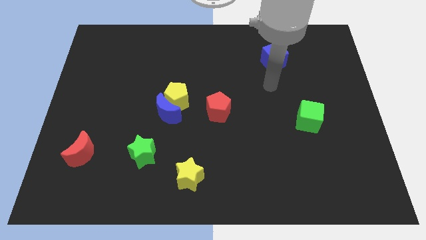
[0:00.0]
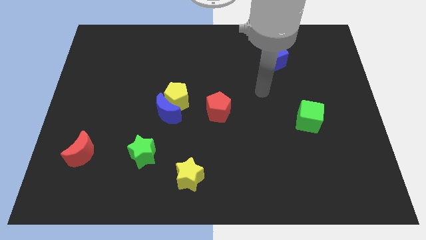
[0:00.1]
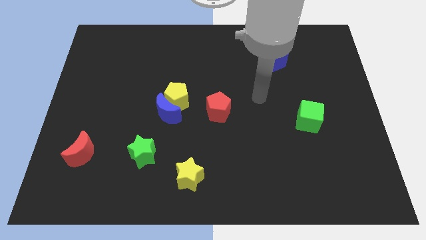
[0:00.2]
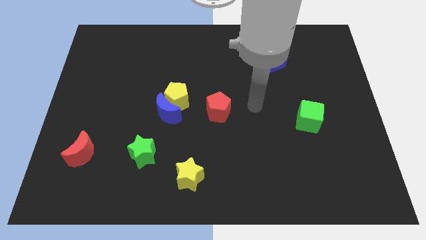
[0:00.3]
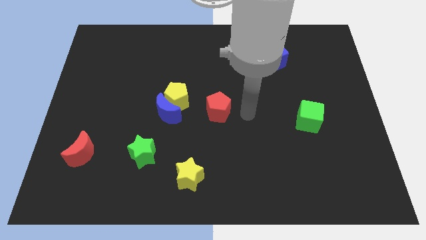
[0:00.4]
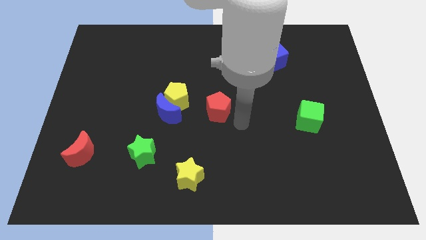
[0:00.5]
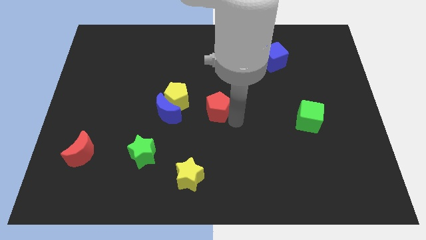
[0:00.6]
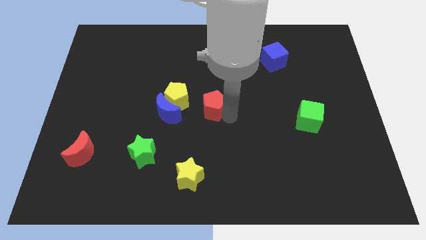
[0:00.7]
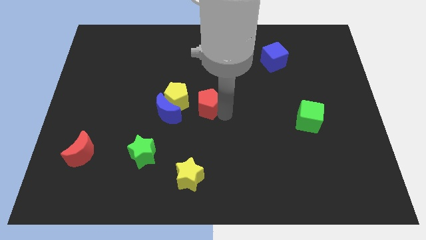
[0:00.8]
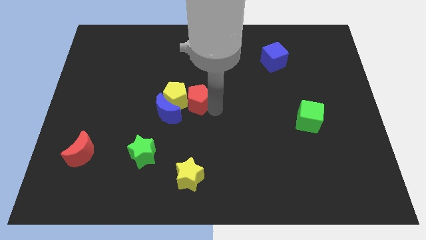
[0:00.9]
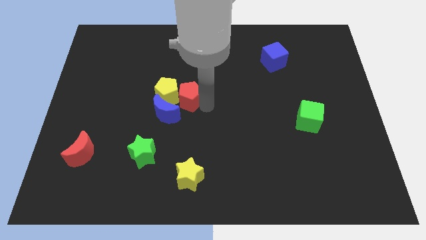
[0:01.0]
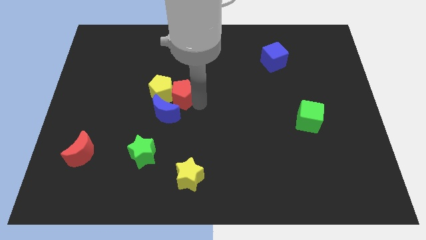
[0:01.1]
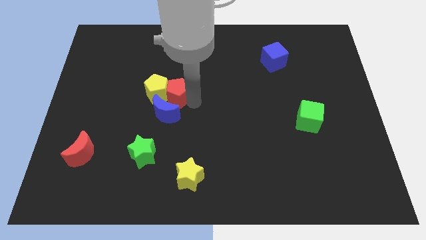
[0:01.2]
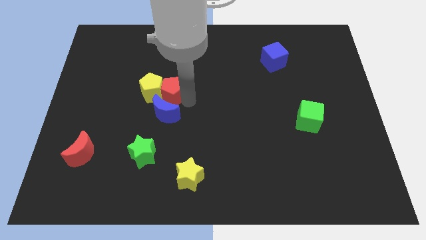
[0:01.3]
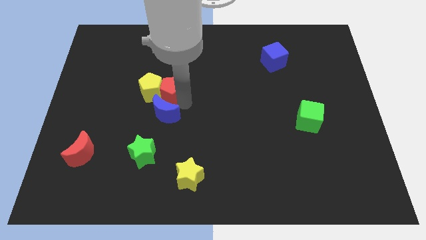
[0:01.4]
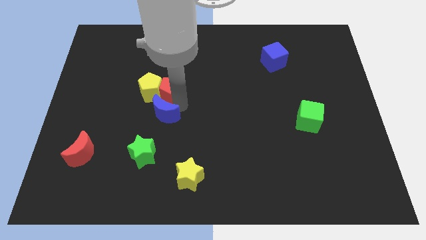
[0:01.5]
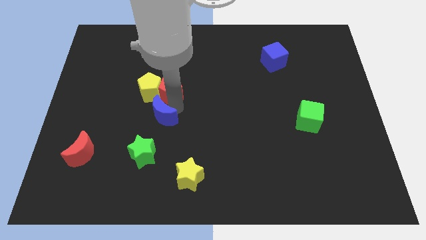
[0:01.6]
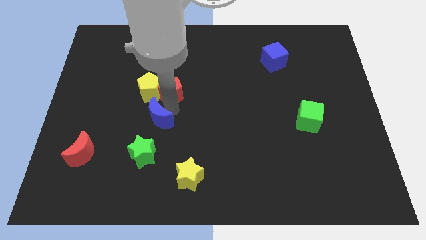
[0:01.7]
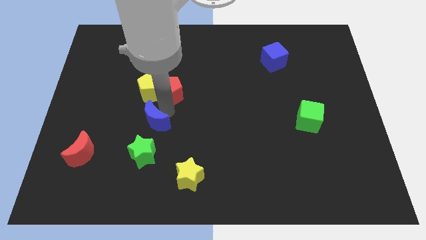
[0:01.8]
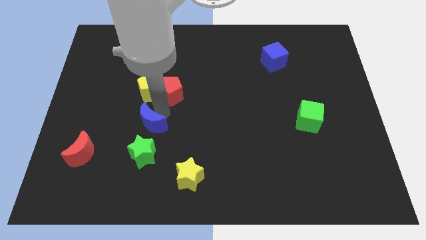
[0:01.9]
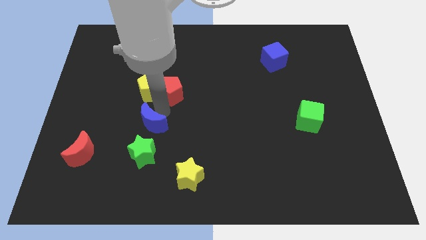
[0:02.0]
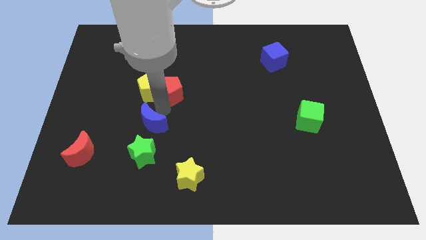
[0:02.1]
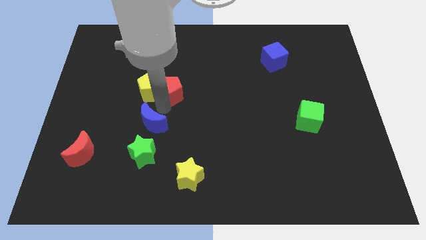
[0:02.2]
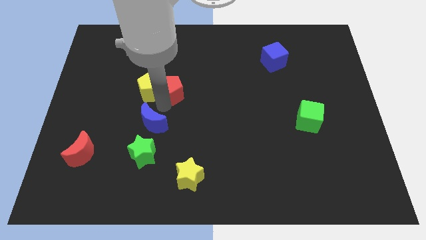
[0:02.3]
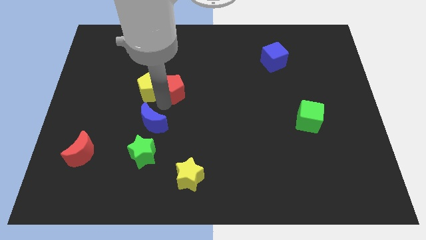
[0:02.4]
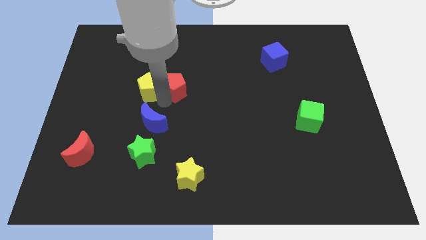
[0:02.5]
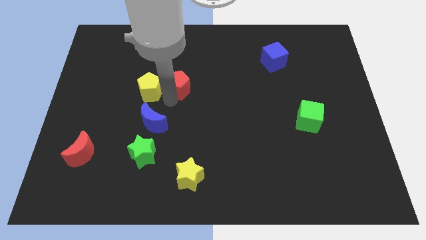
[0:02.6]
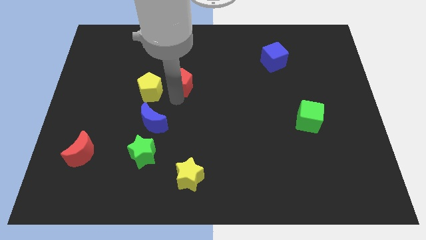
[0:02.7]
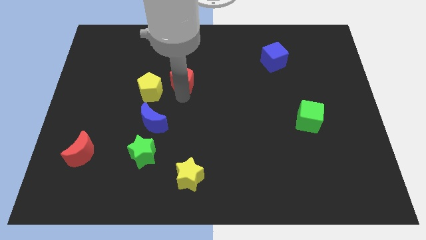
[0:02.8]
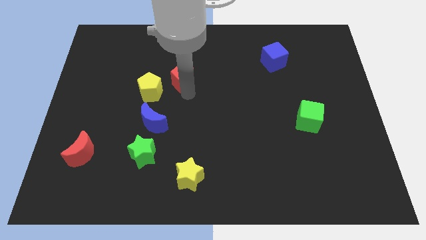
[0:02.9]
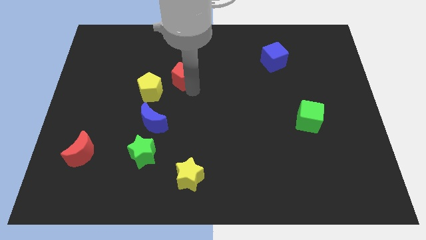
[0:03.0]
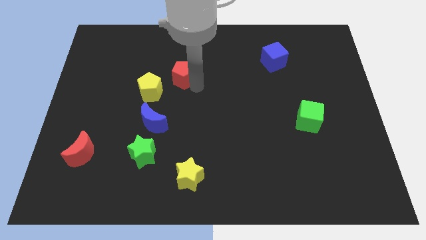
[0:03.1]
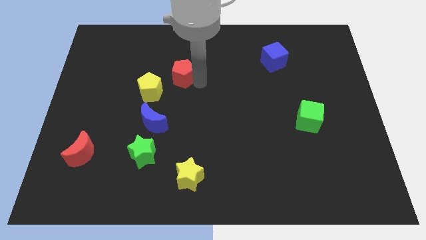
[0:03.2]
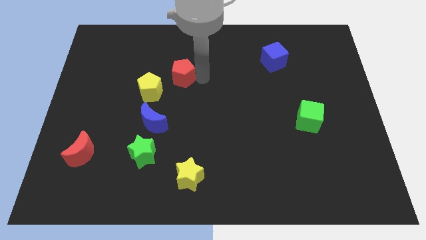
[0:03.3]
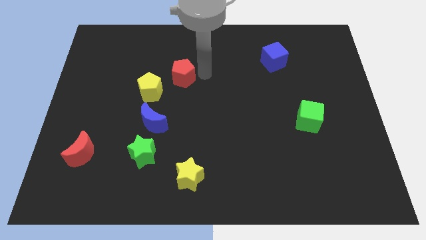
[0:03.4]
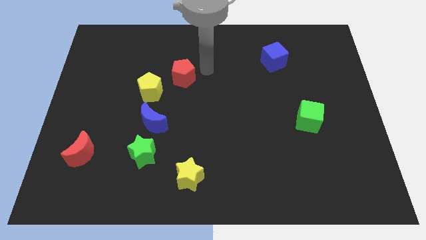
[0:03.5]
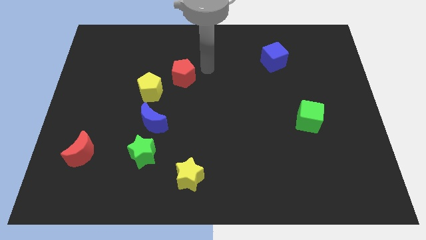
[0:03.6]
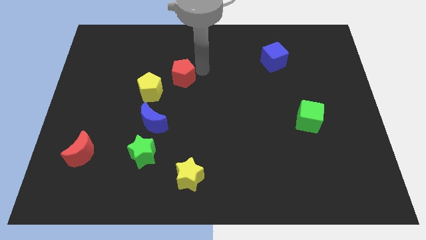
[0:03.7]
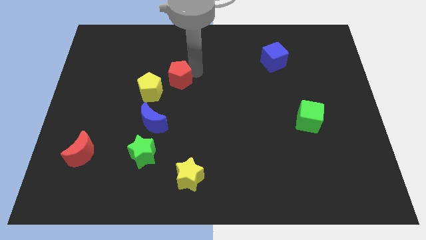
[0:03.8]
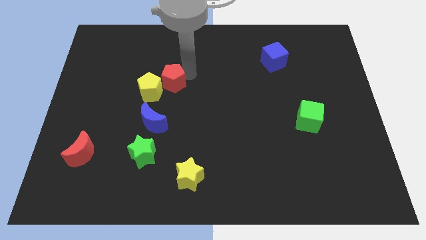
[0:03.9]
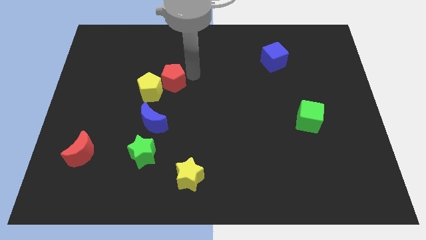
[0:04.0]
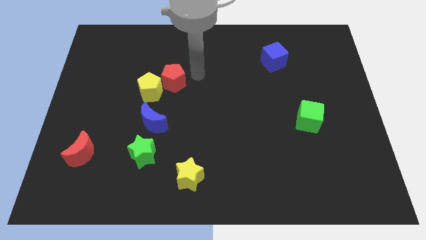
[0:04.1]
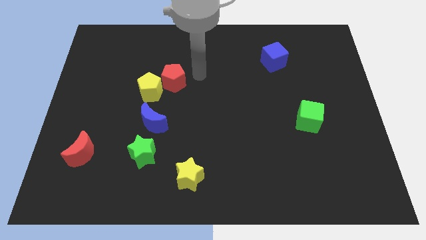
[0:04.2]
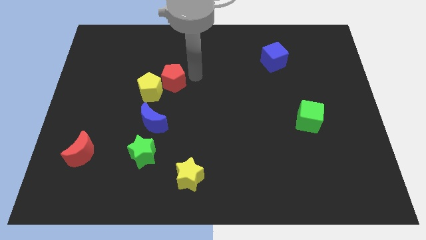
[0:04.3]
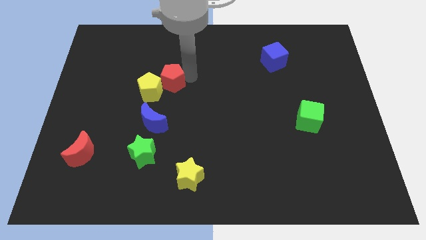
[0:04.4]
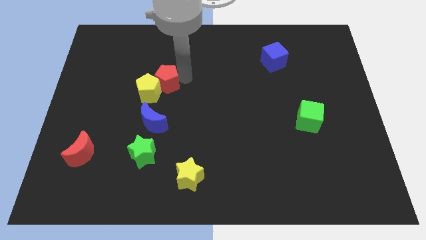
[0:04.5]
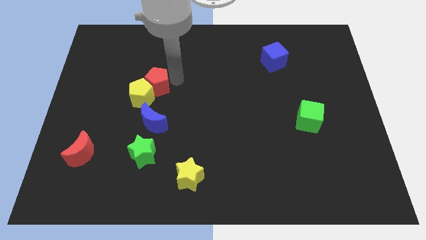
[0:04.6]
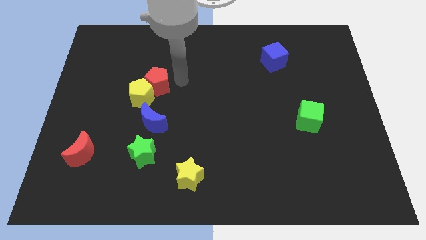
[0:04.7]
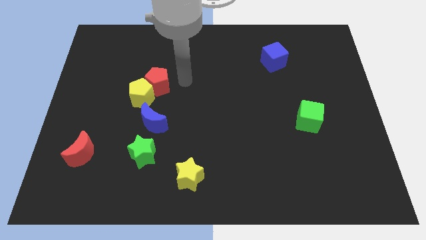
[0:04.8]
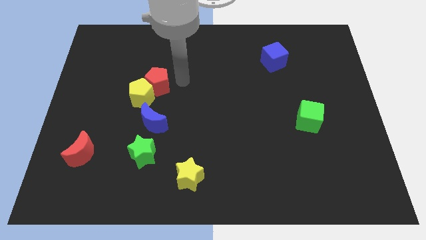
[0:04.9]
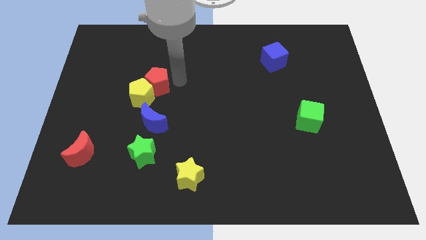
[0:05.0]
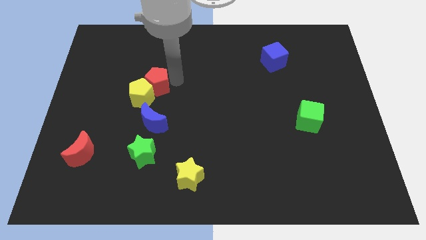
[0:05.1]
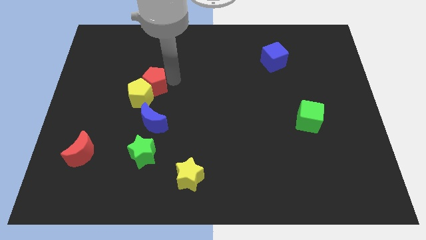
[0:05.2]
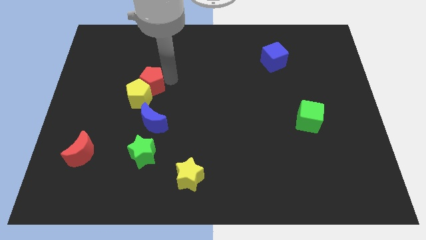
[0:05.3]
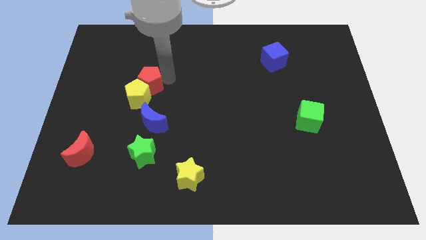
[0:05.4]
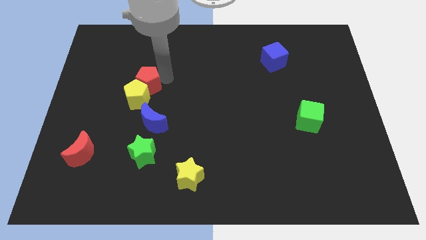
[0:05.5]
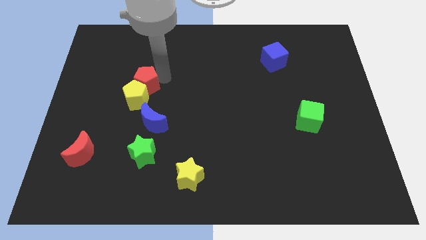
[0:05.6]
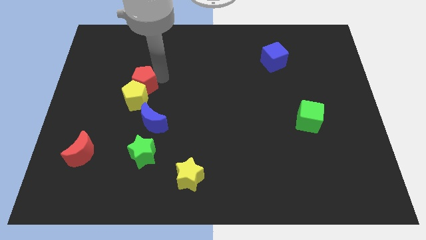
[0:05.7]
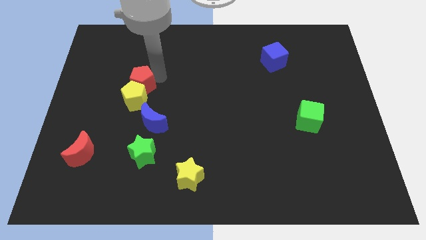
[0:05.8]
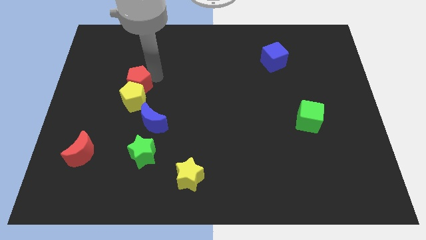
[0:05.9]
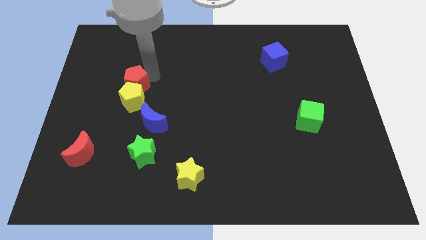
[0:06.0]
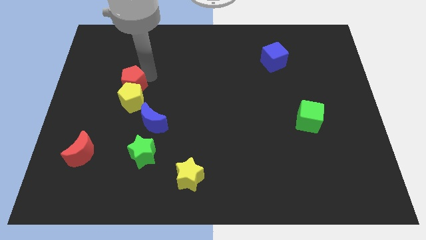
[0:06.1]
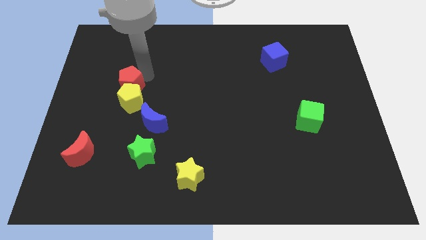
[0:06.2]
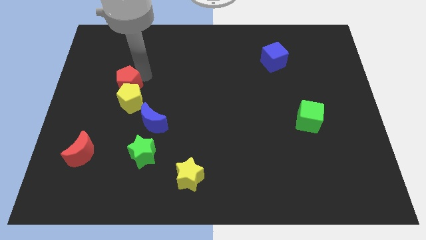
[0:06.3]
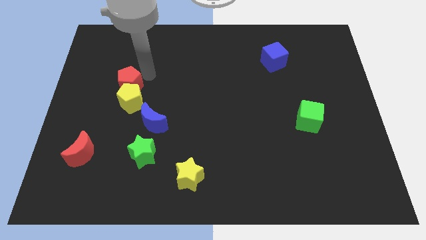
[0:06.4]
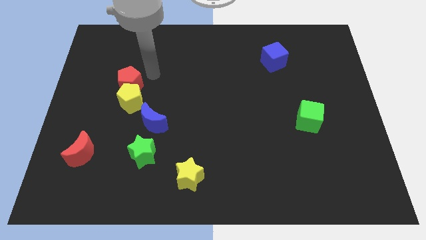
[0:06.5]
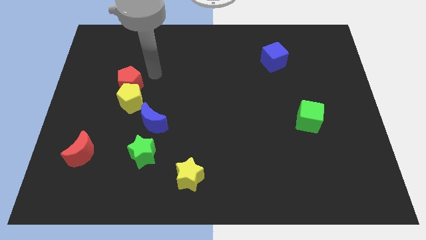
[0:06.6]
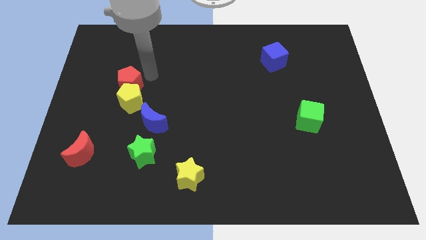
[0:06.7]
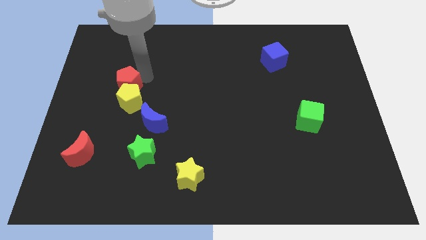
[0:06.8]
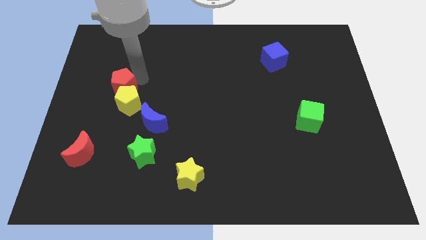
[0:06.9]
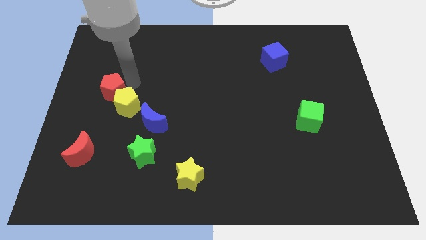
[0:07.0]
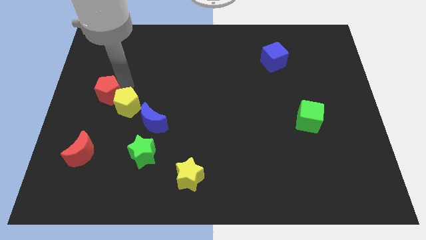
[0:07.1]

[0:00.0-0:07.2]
slide the red pentagon to the left side of the board
